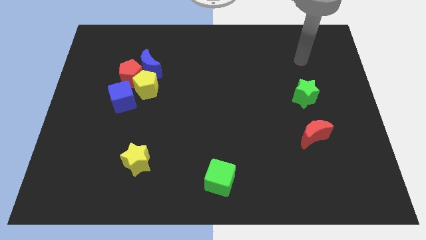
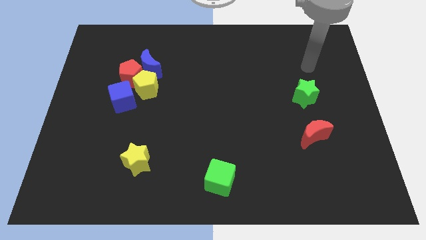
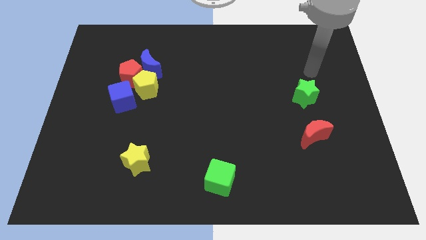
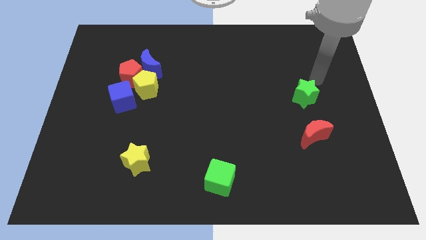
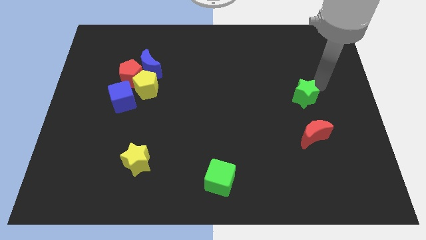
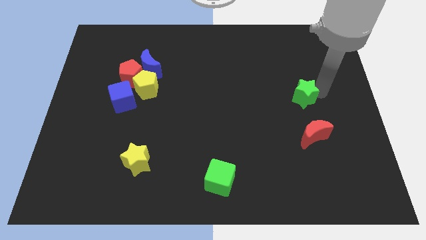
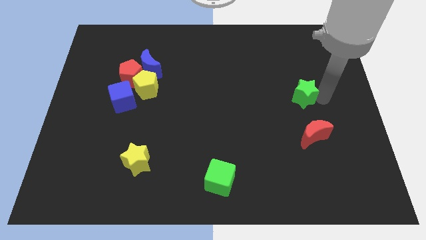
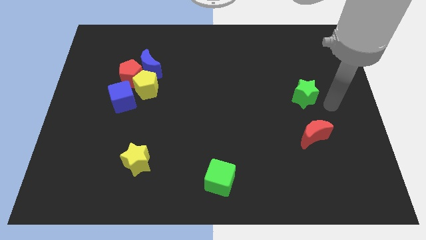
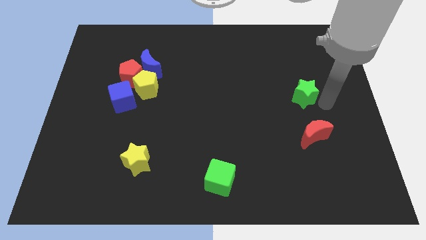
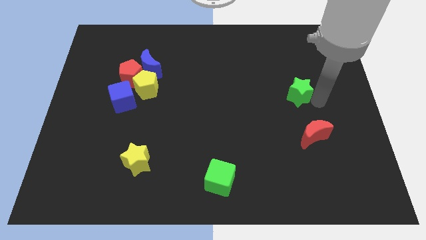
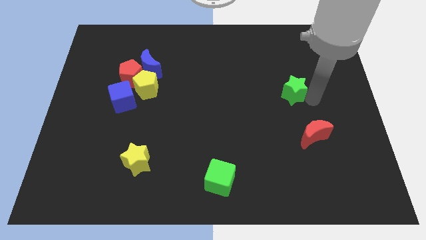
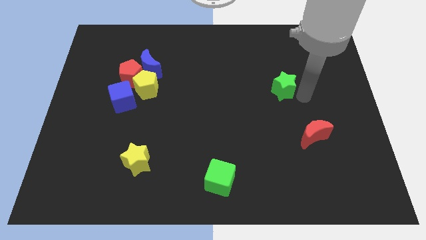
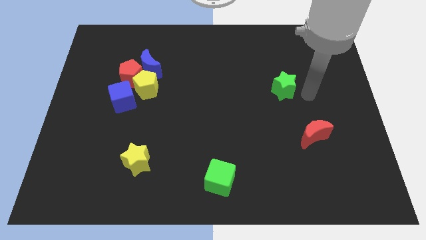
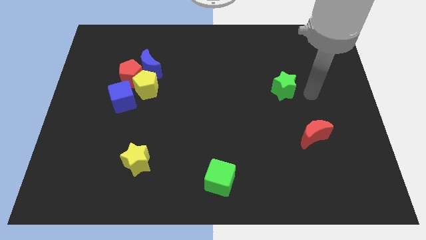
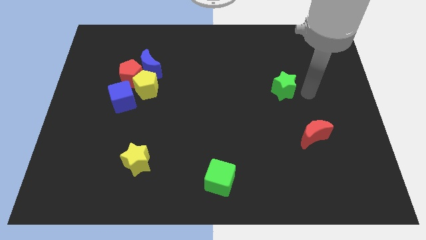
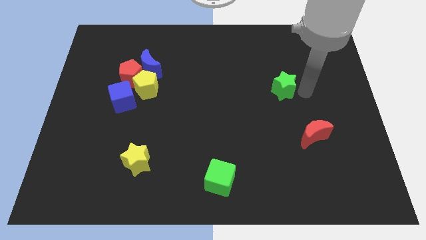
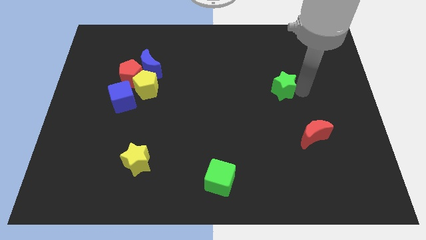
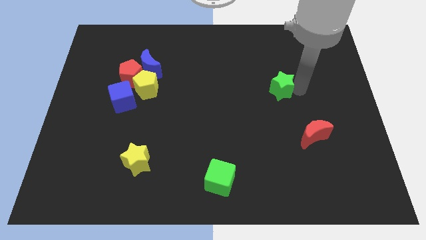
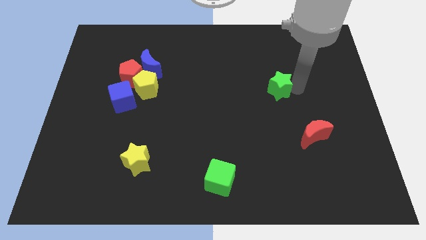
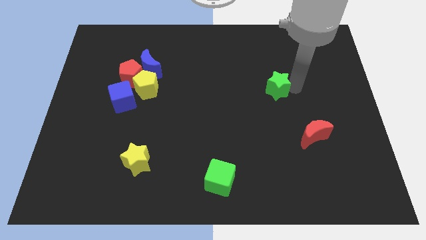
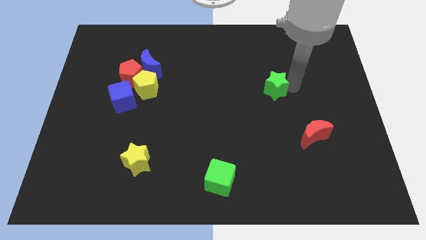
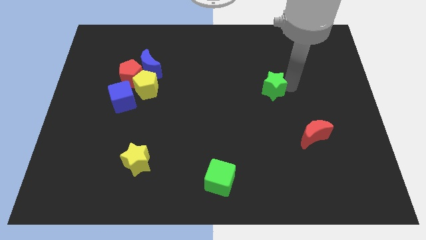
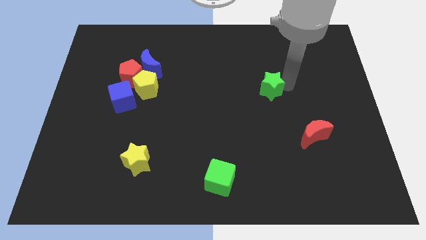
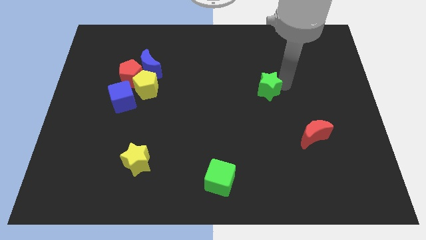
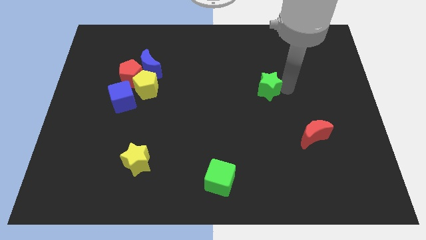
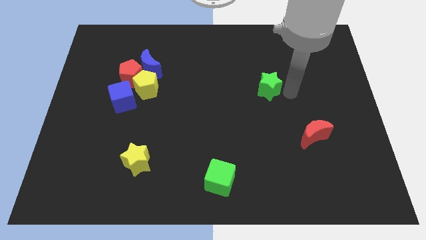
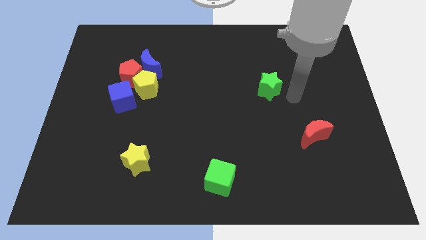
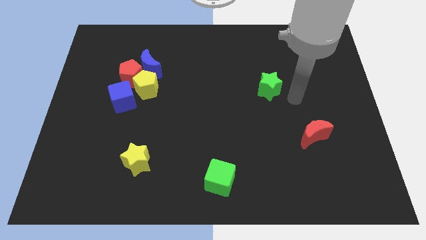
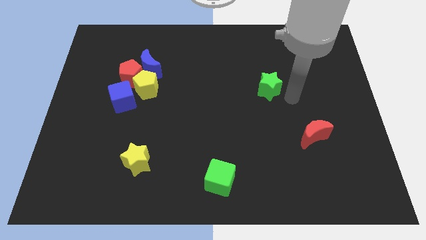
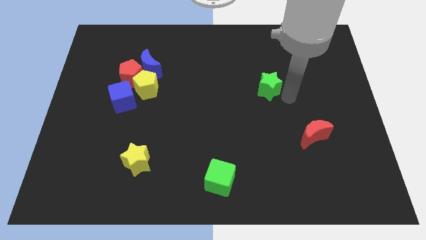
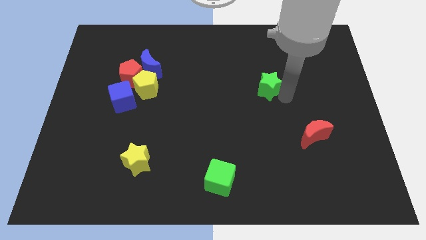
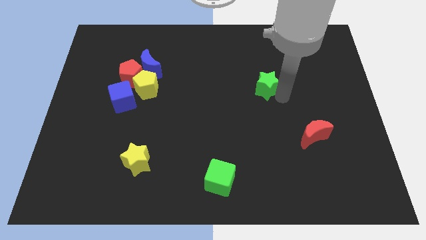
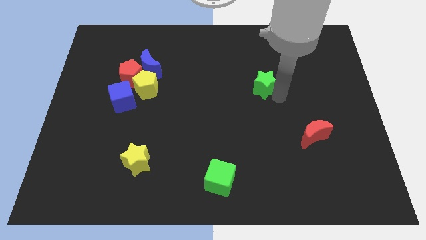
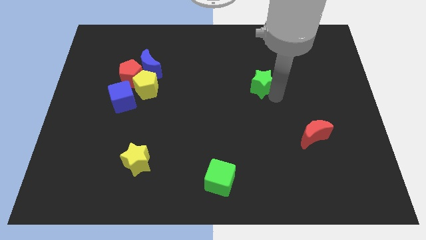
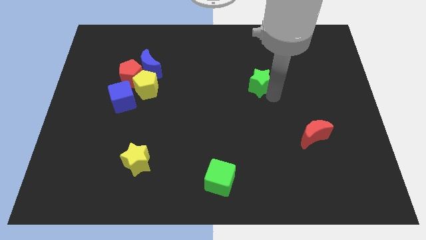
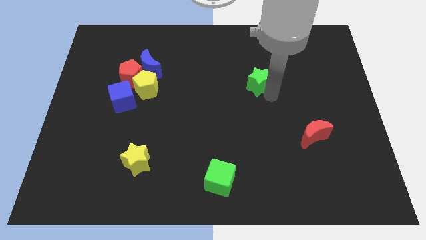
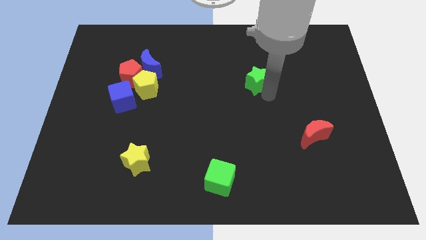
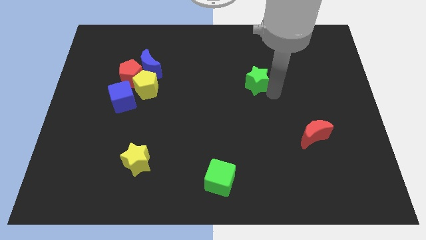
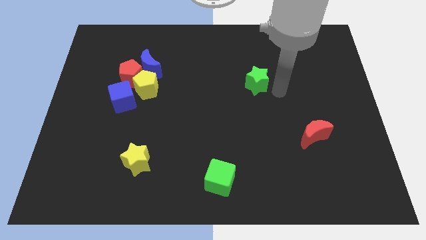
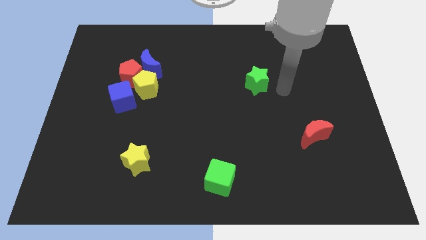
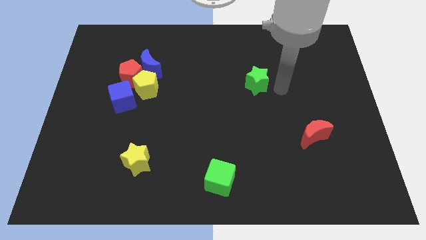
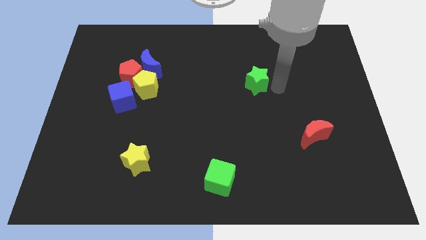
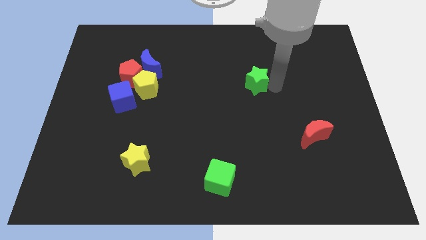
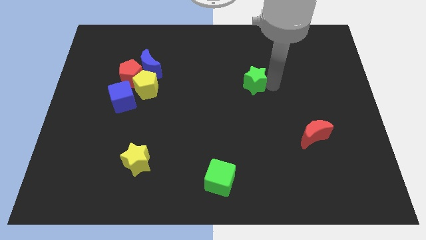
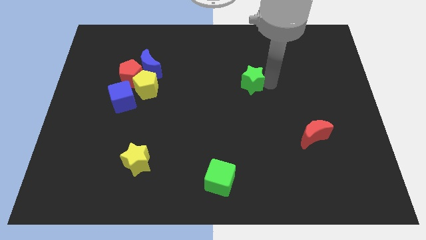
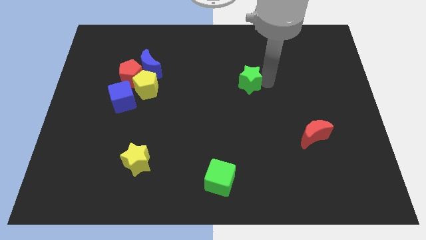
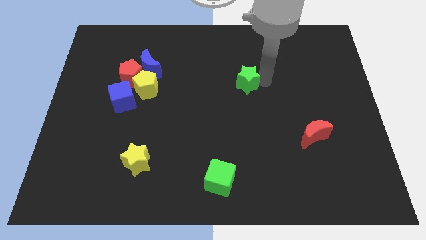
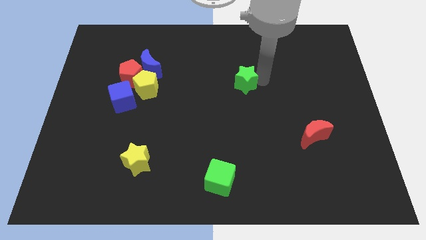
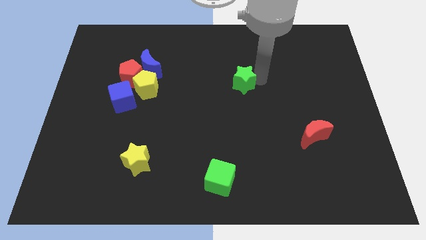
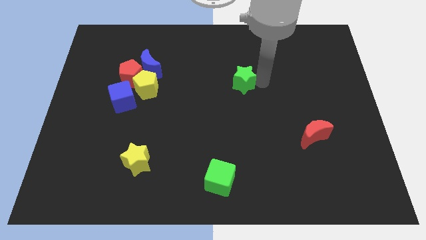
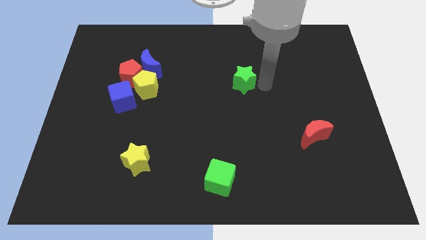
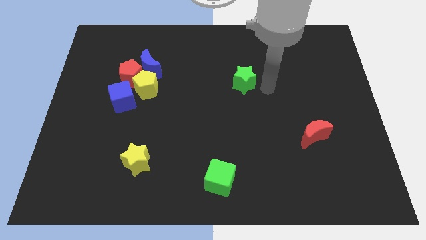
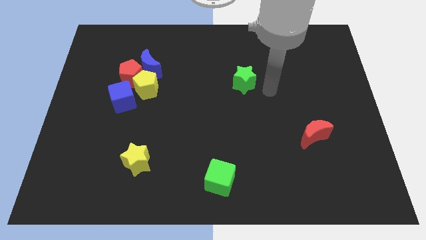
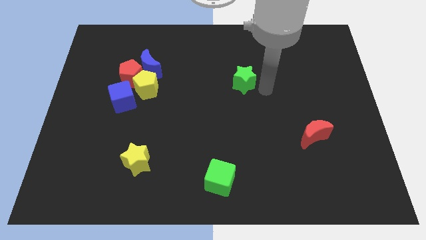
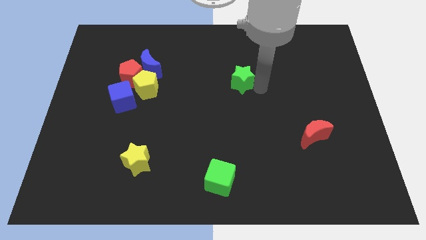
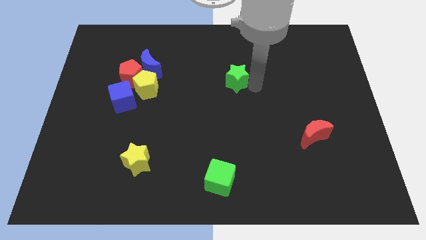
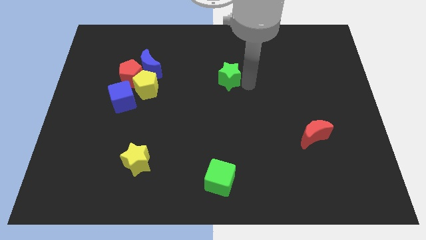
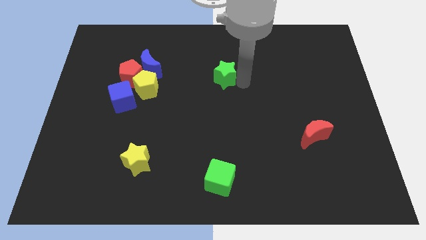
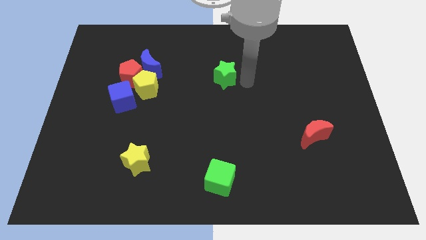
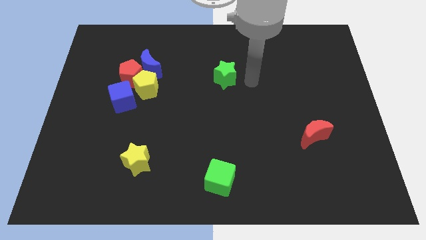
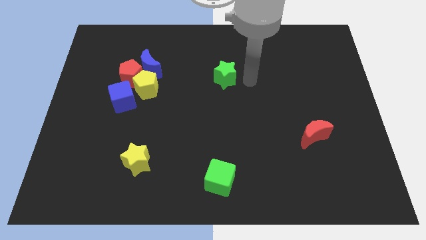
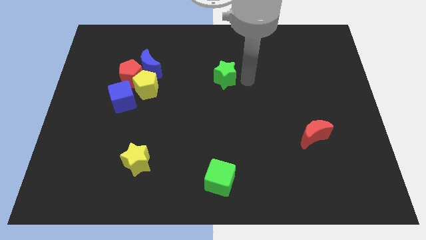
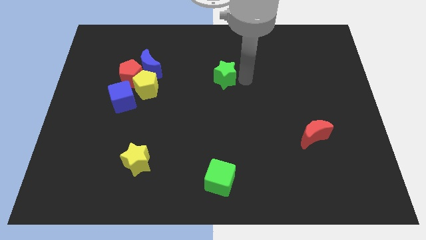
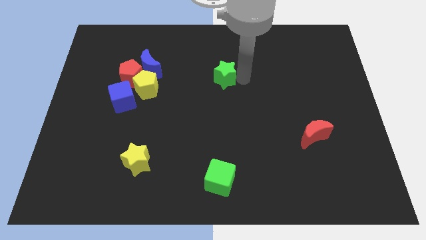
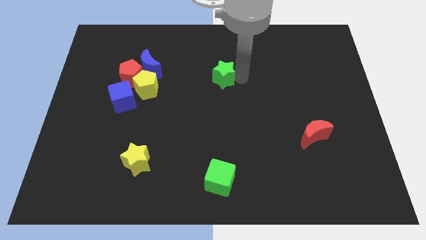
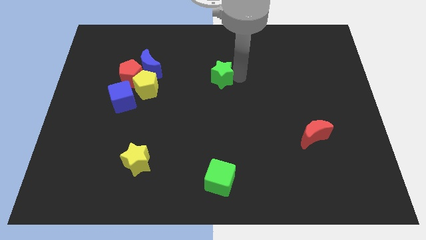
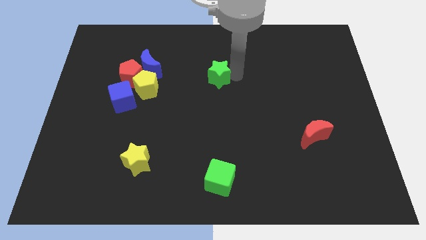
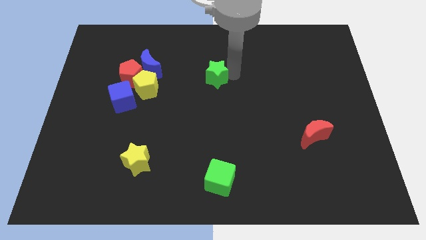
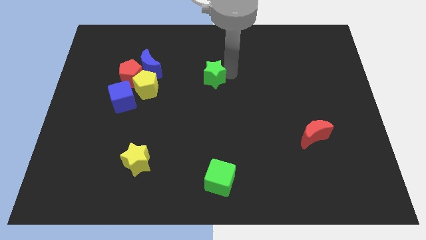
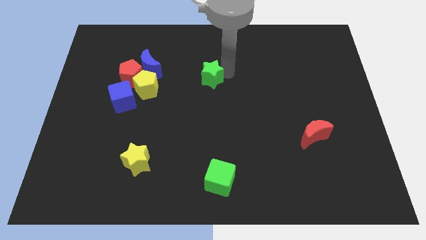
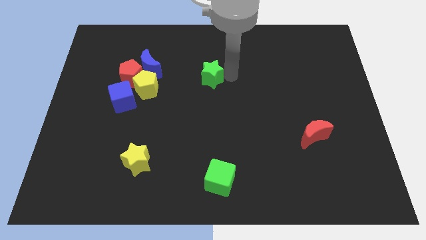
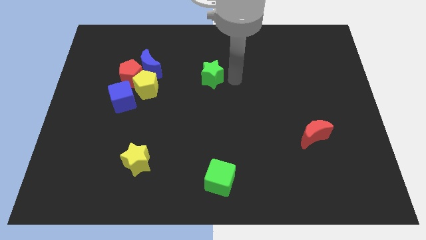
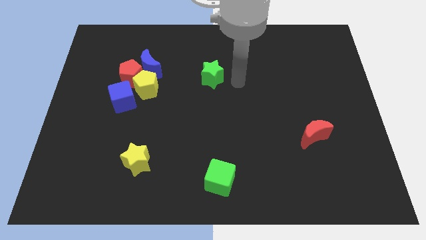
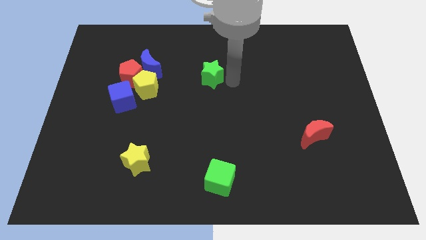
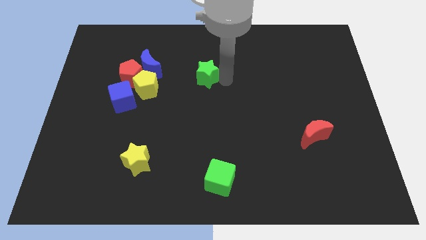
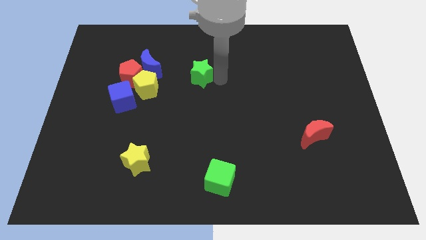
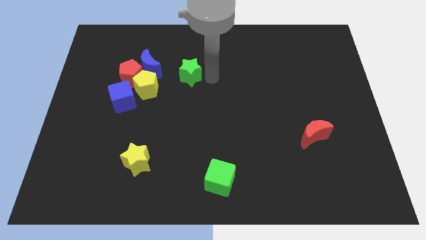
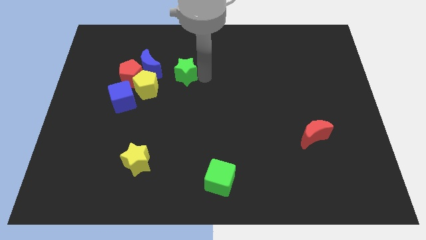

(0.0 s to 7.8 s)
slide the green star to the top right of the yellow pentagon
